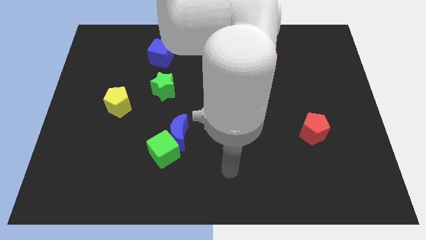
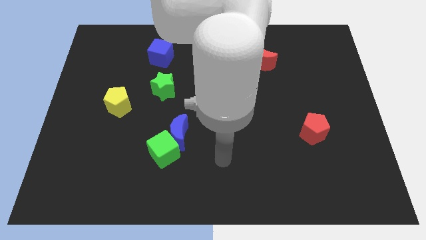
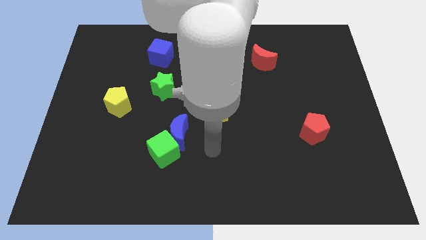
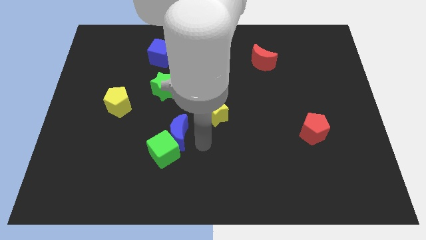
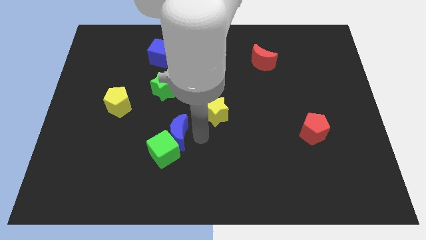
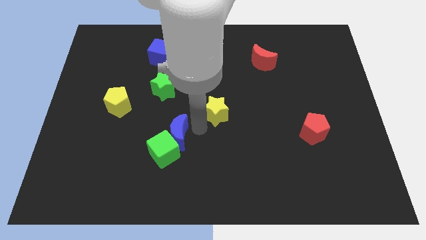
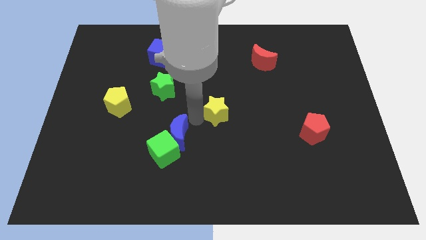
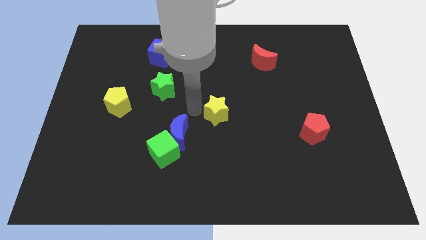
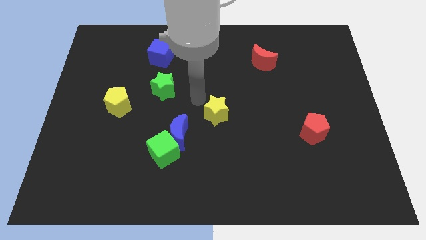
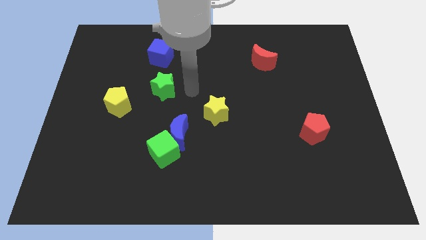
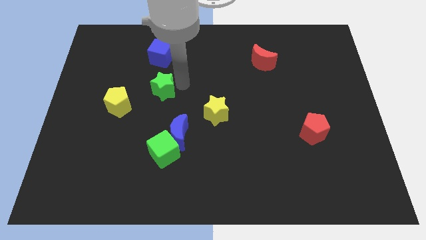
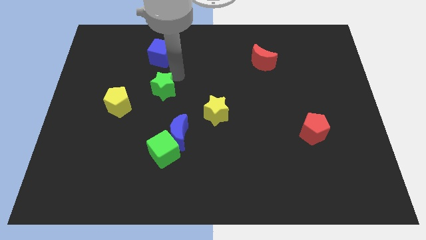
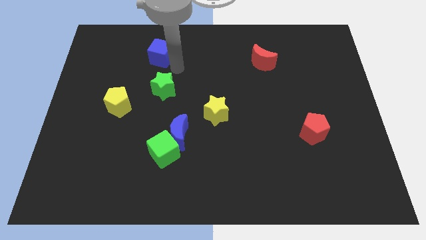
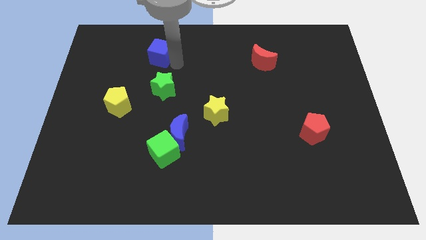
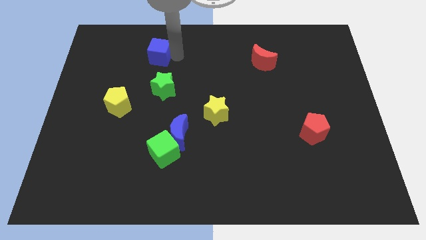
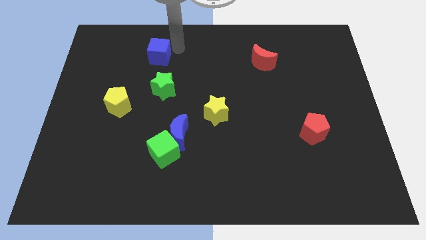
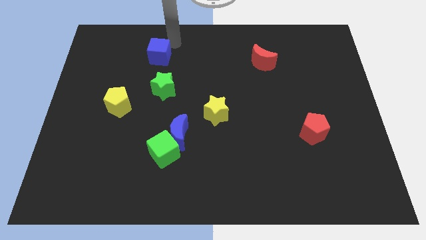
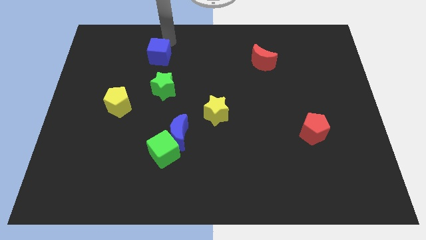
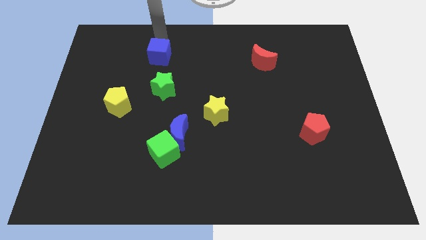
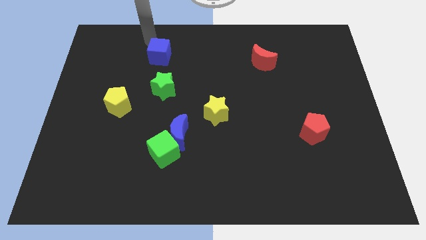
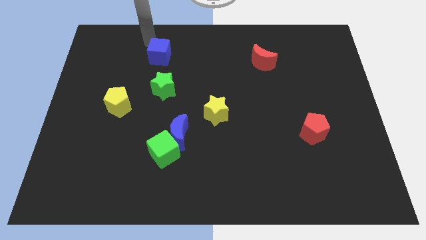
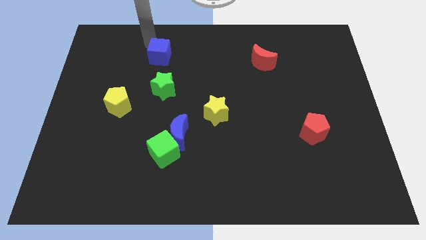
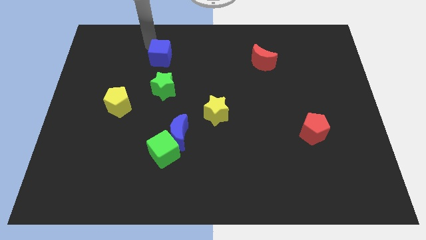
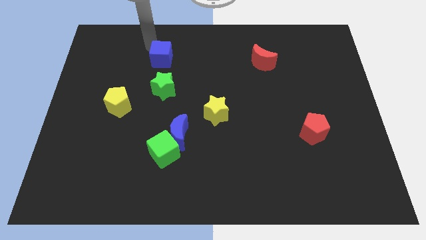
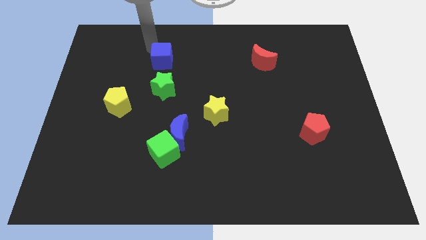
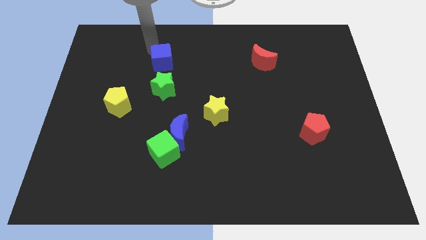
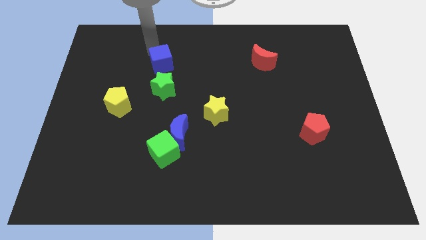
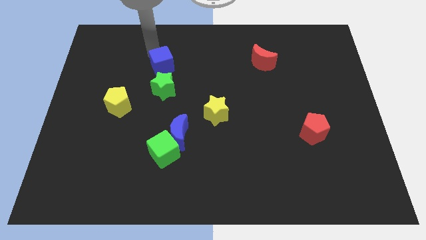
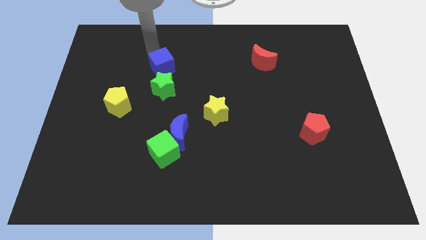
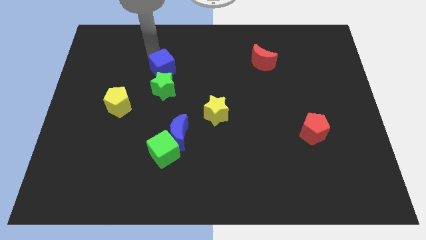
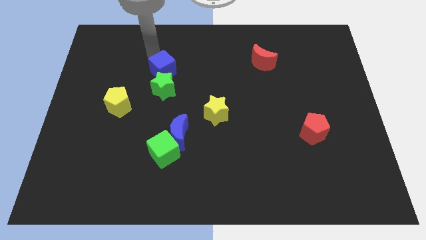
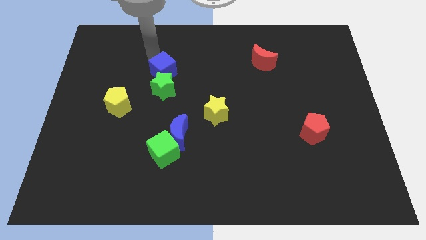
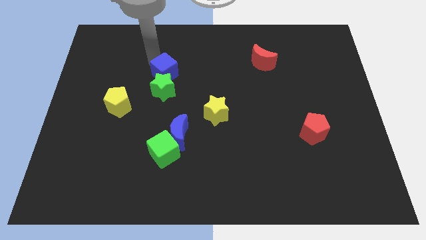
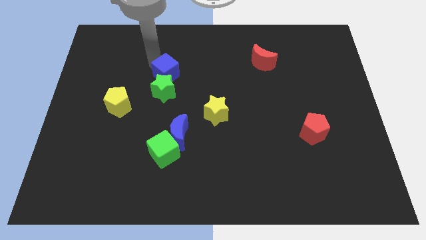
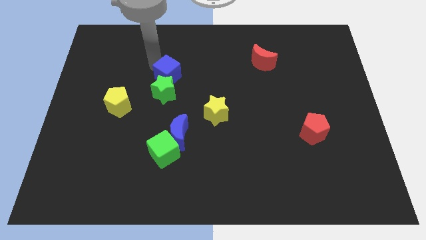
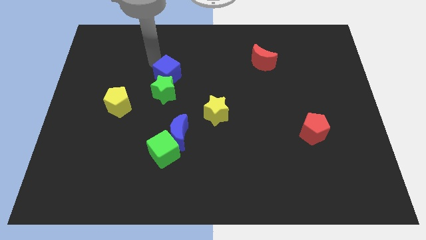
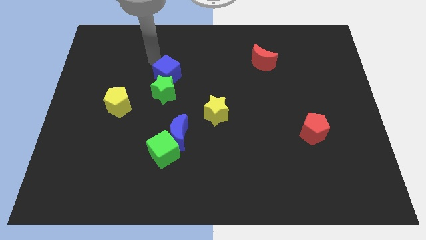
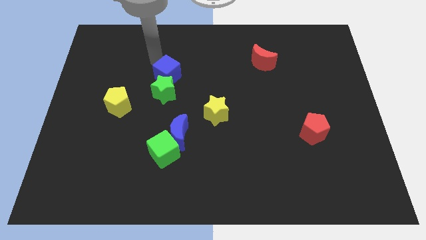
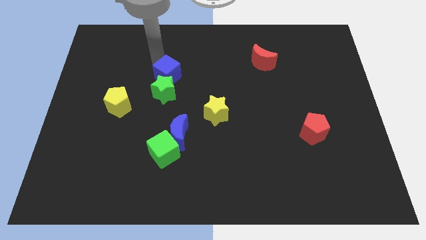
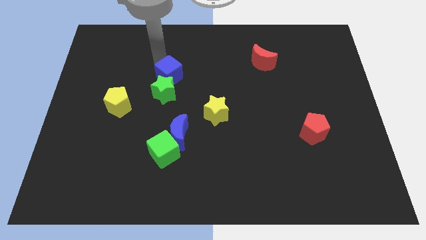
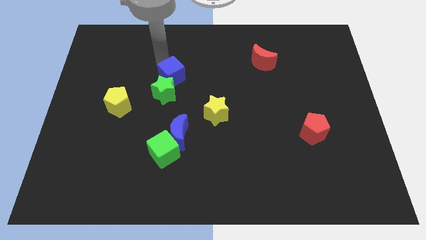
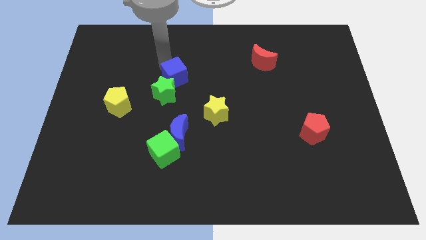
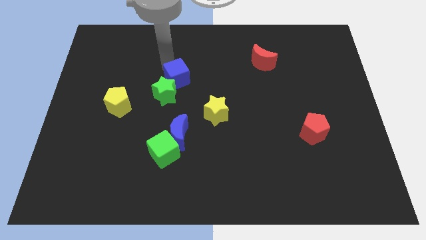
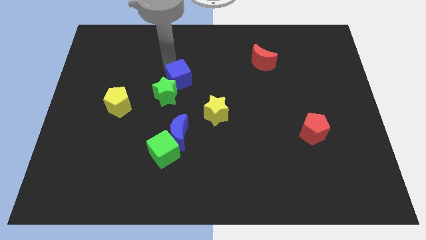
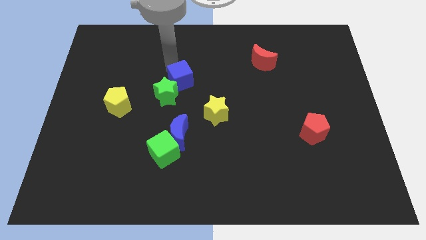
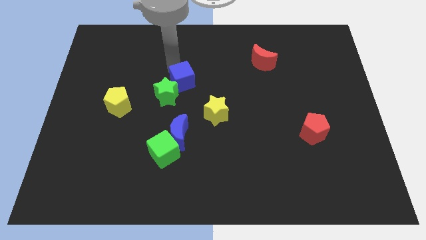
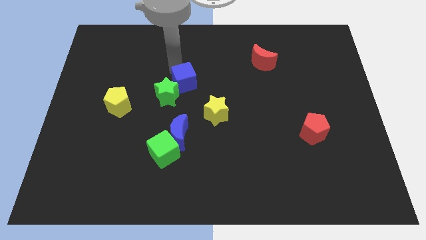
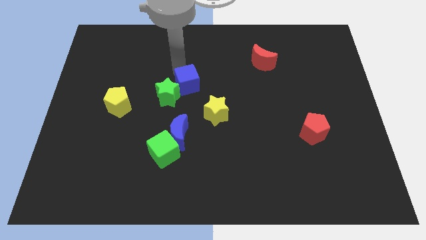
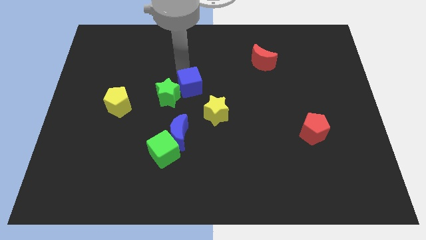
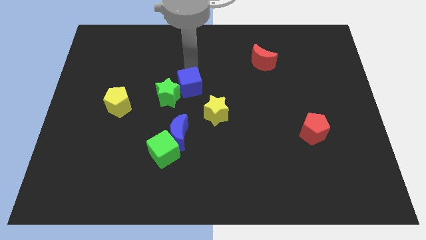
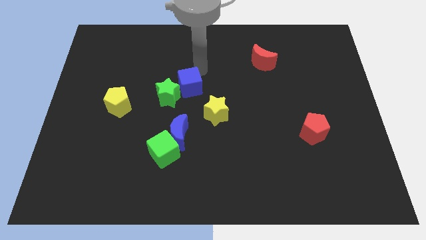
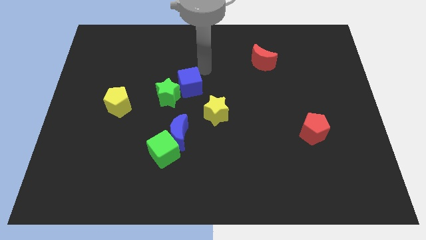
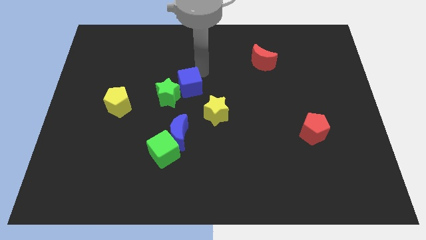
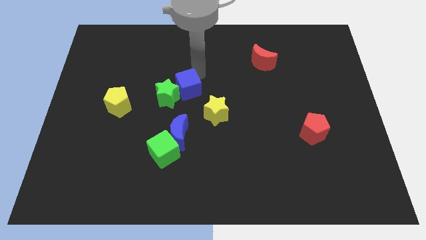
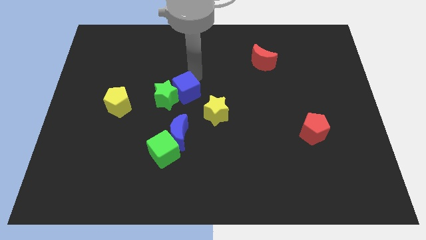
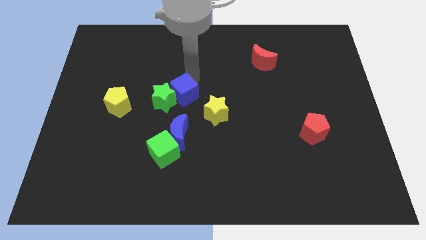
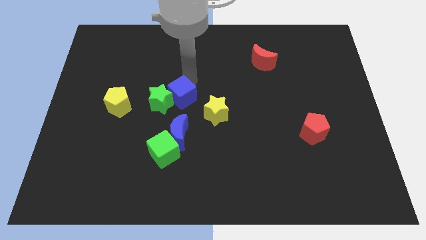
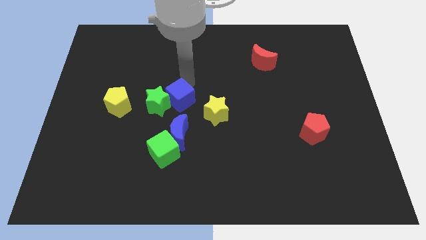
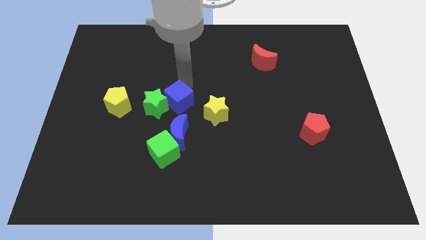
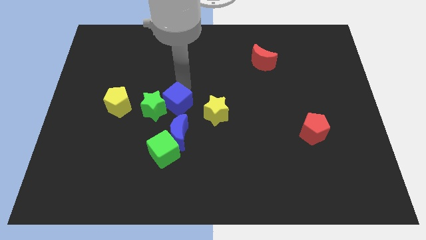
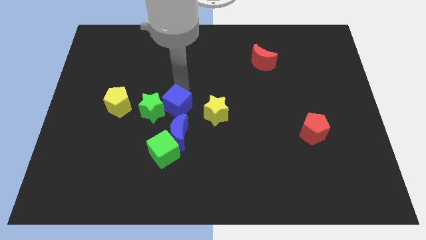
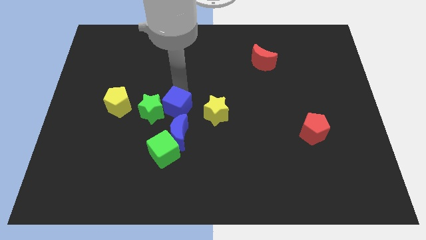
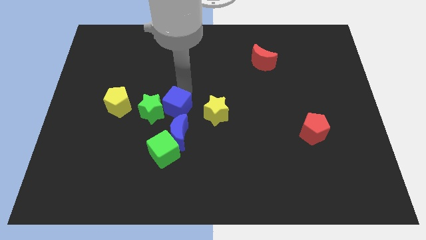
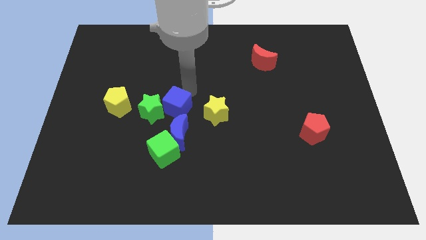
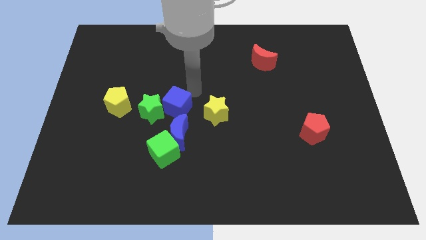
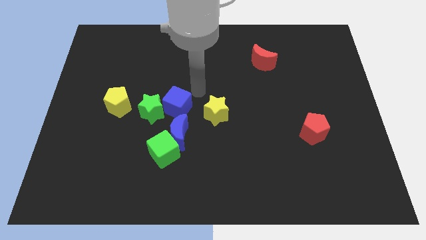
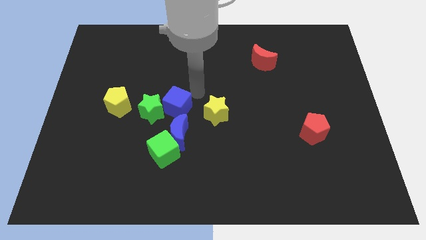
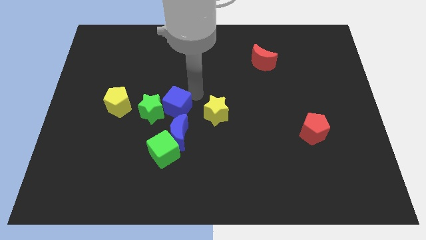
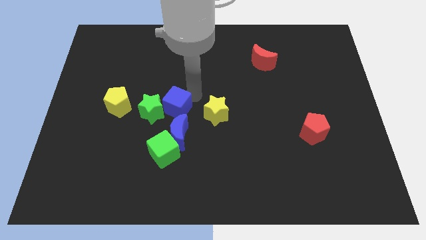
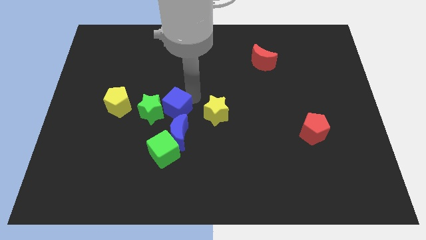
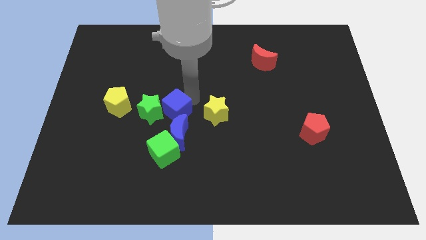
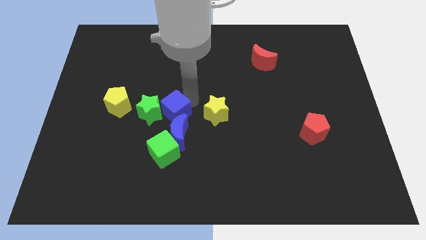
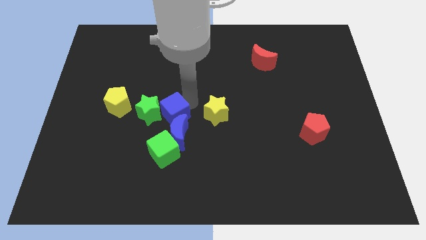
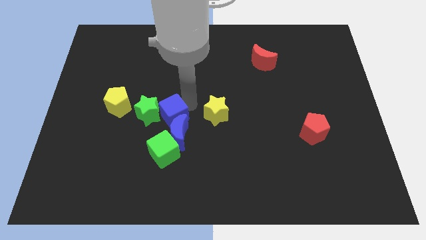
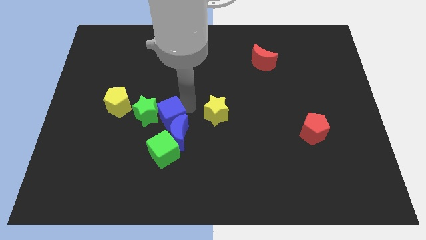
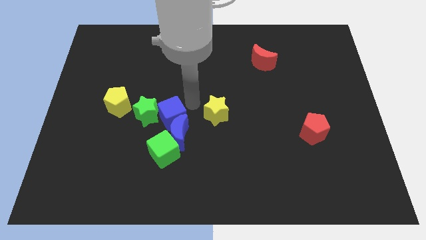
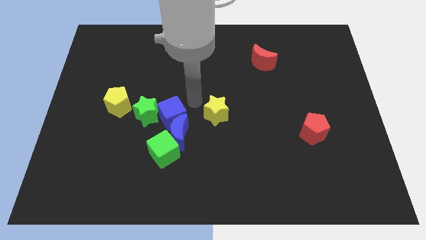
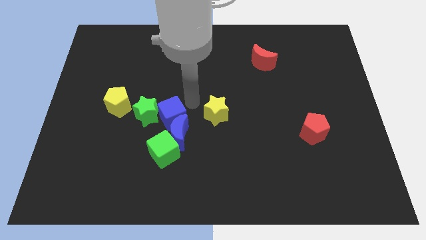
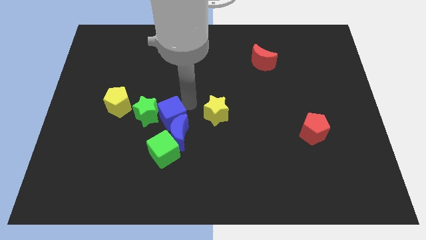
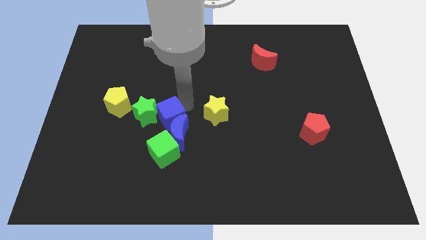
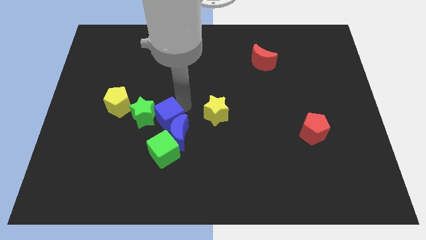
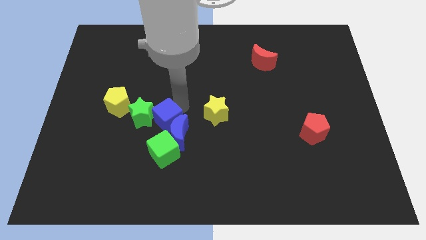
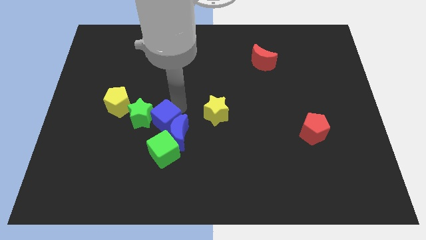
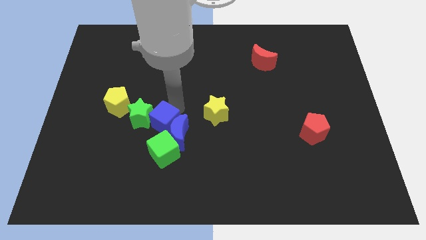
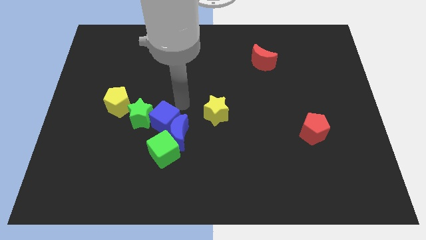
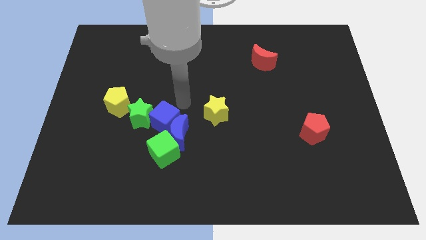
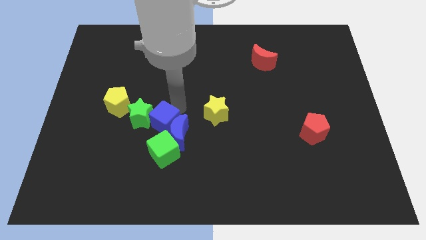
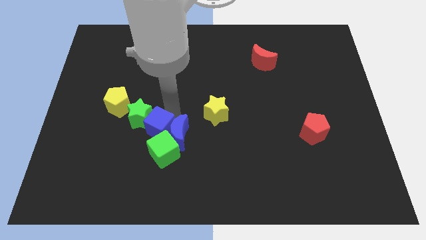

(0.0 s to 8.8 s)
slide the blue cube diagonally down and to the left of the blue moon
